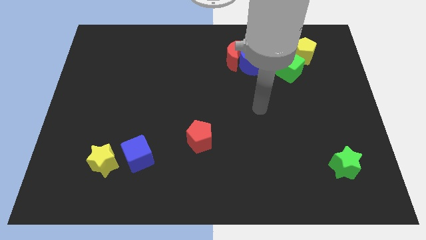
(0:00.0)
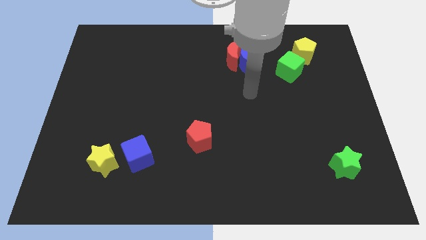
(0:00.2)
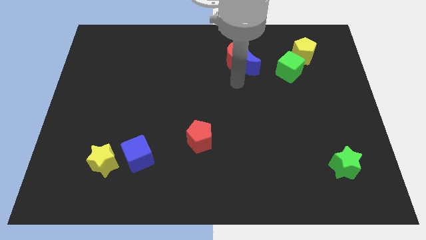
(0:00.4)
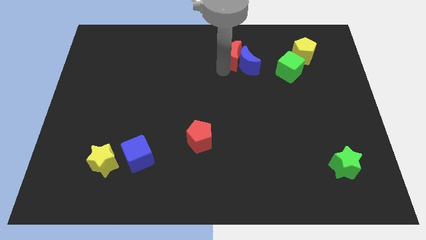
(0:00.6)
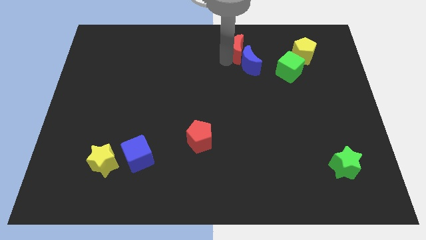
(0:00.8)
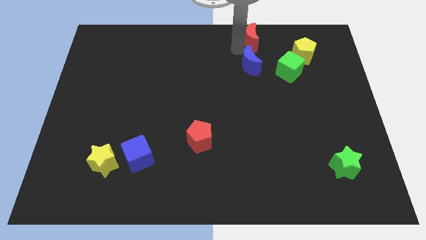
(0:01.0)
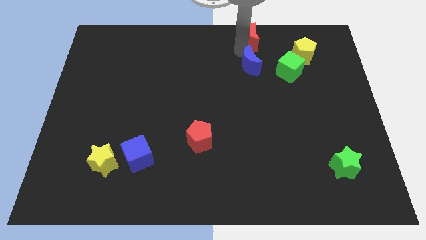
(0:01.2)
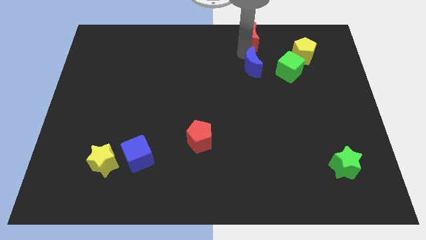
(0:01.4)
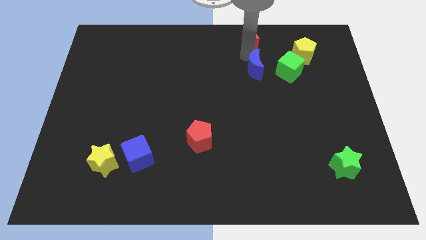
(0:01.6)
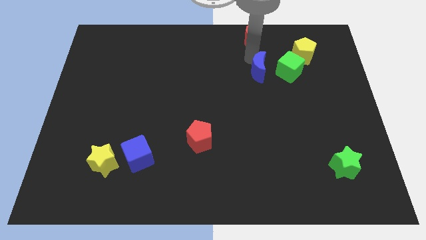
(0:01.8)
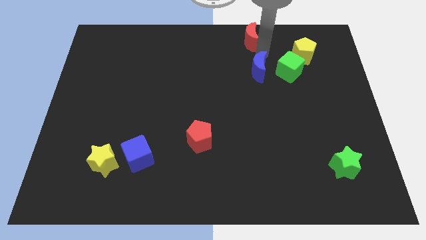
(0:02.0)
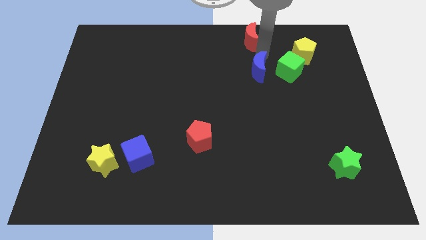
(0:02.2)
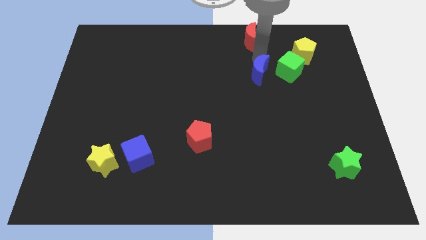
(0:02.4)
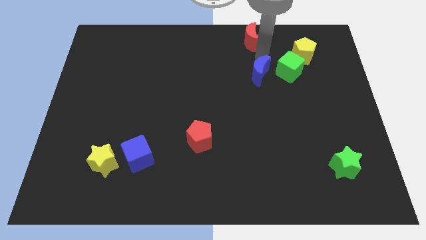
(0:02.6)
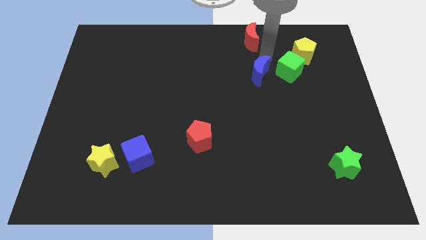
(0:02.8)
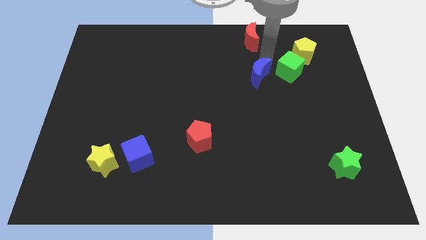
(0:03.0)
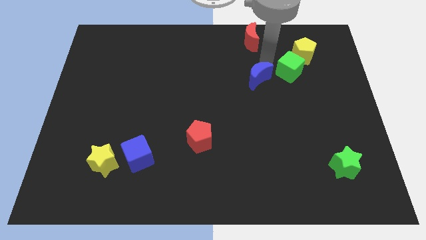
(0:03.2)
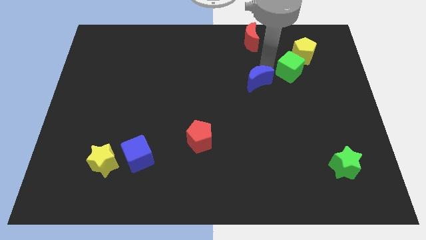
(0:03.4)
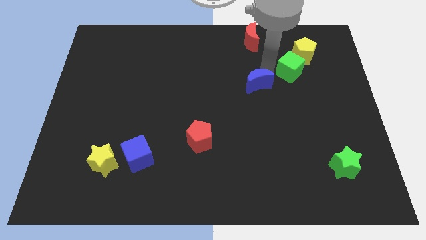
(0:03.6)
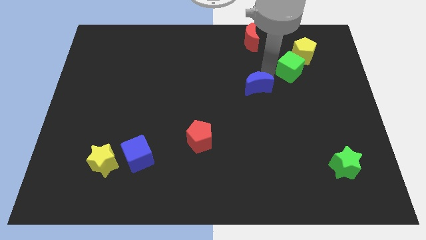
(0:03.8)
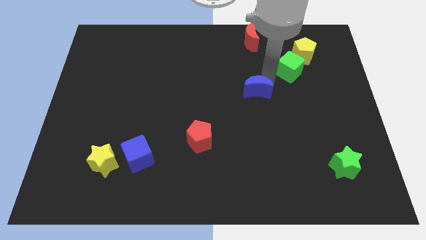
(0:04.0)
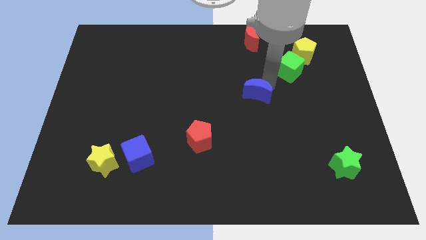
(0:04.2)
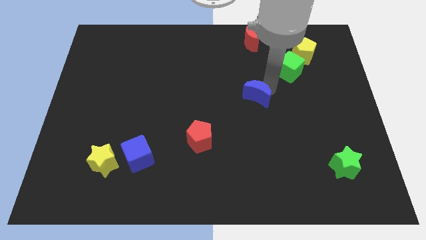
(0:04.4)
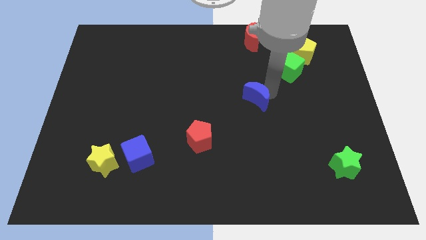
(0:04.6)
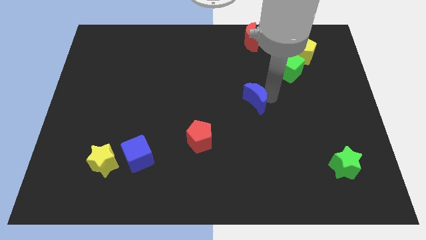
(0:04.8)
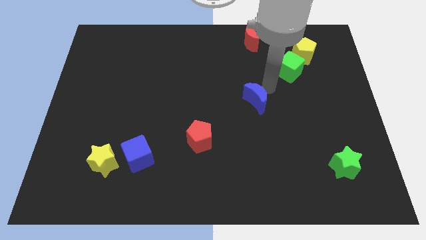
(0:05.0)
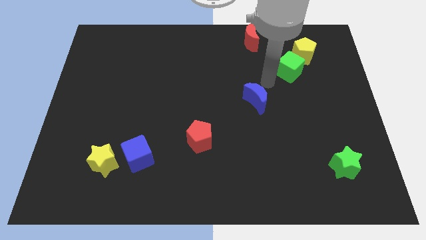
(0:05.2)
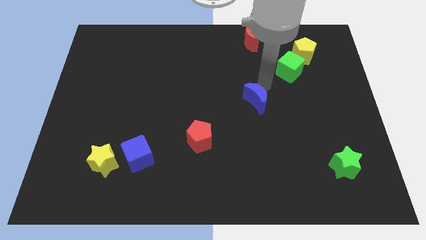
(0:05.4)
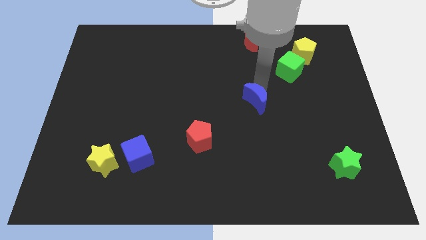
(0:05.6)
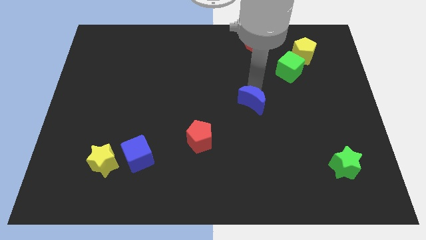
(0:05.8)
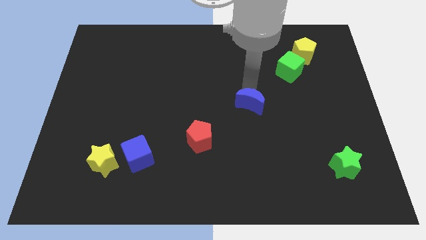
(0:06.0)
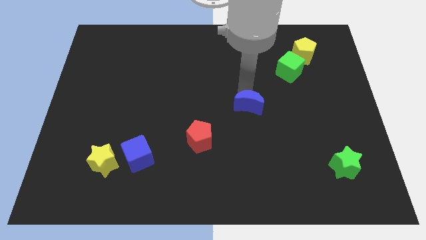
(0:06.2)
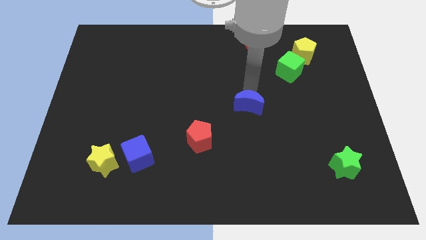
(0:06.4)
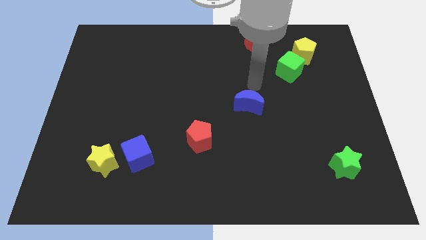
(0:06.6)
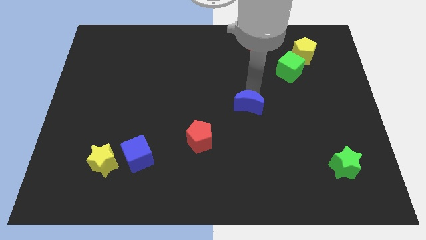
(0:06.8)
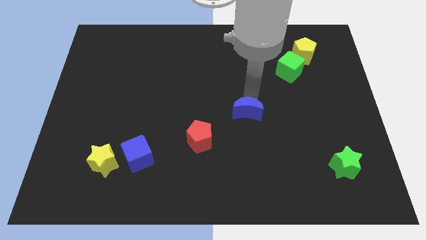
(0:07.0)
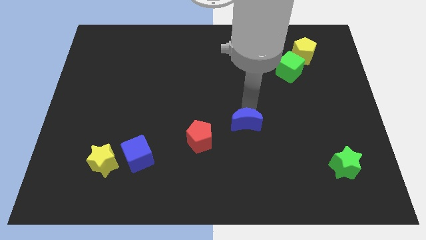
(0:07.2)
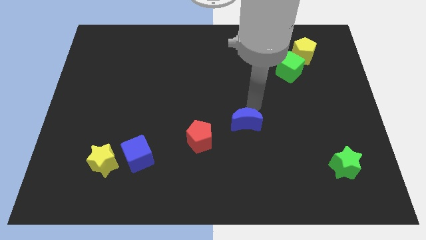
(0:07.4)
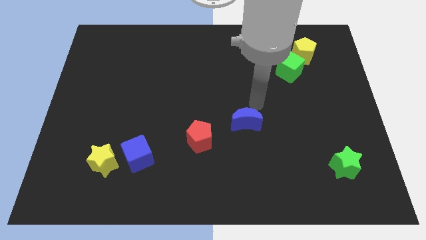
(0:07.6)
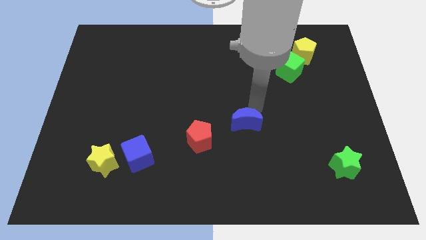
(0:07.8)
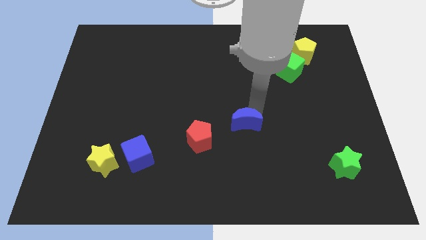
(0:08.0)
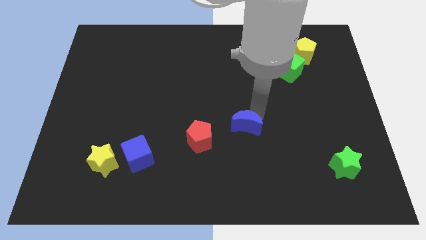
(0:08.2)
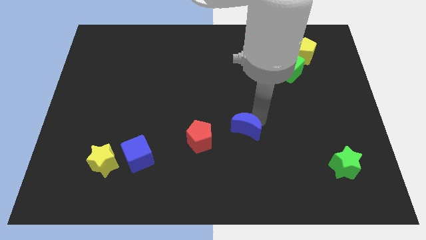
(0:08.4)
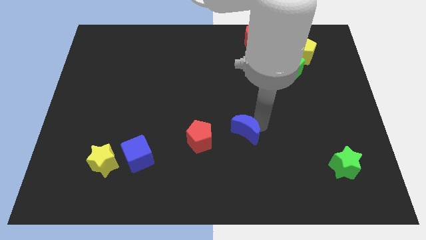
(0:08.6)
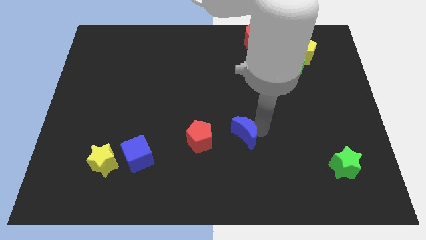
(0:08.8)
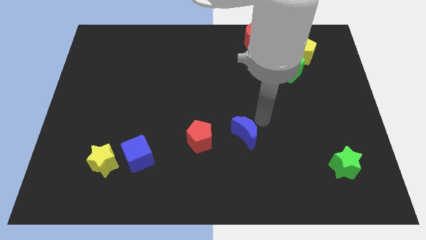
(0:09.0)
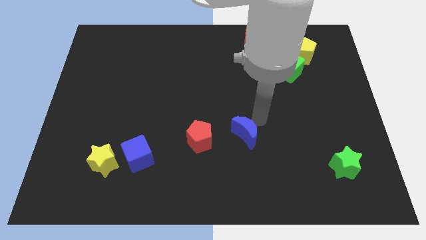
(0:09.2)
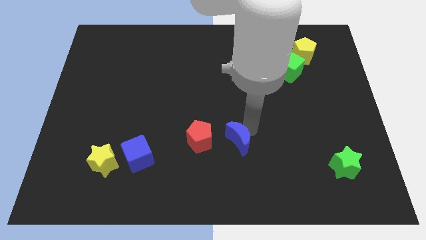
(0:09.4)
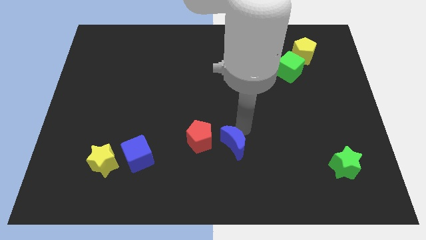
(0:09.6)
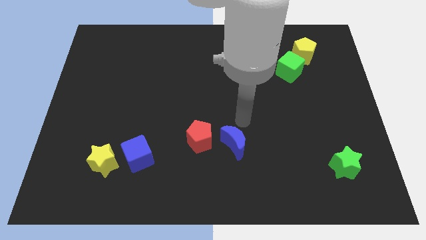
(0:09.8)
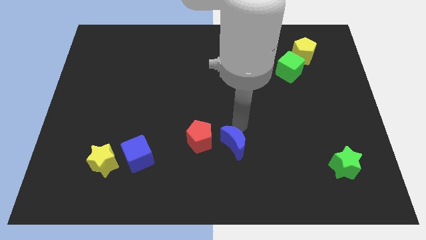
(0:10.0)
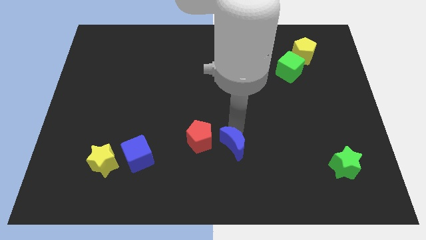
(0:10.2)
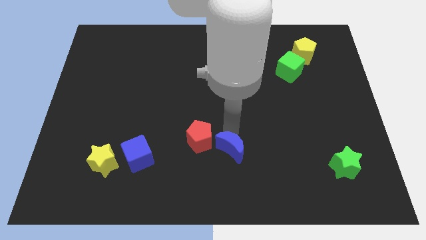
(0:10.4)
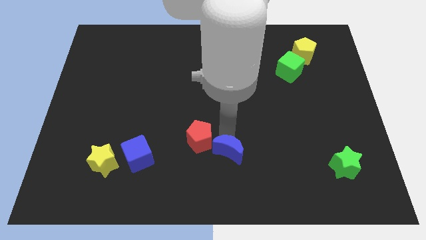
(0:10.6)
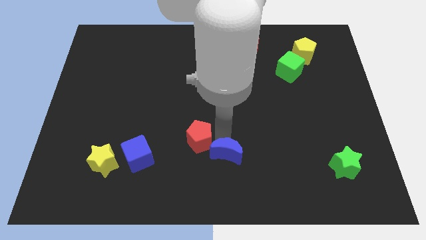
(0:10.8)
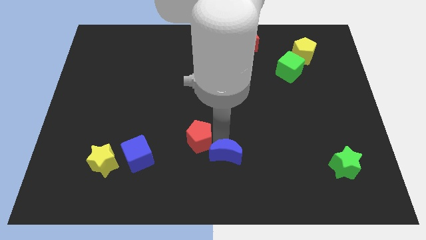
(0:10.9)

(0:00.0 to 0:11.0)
move the blue moon to the bottom

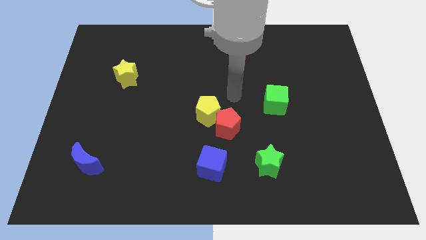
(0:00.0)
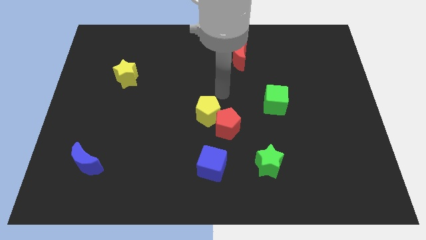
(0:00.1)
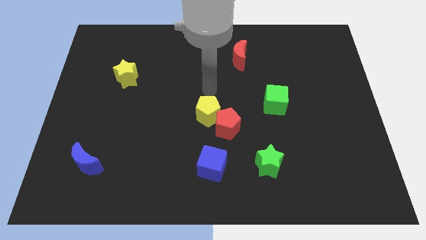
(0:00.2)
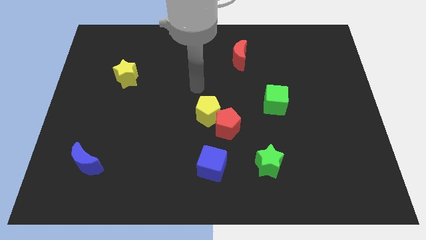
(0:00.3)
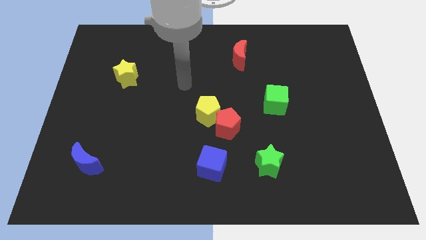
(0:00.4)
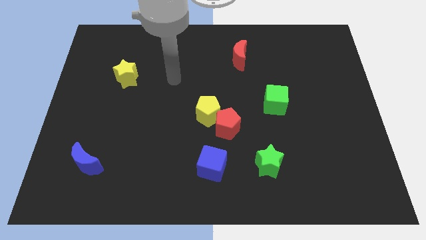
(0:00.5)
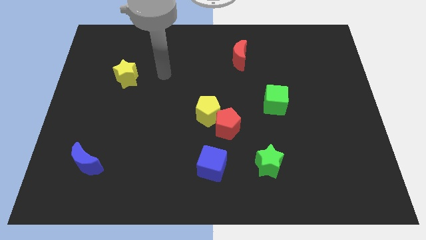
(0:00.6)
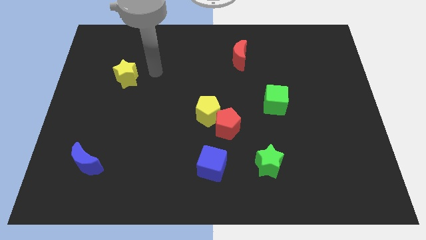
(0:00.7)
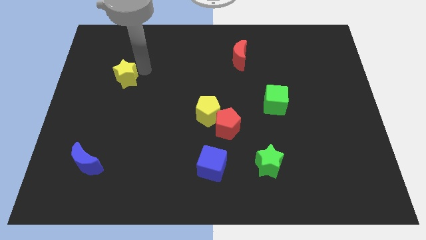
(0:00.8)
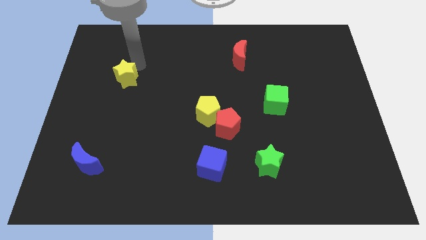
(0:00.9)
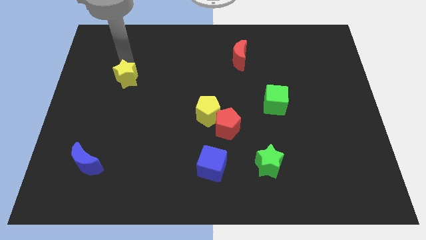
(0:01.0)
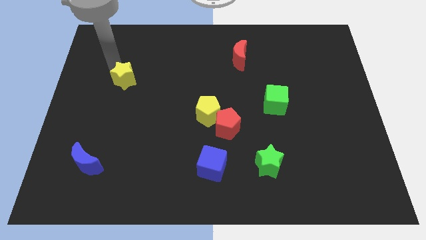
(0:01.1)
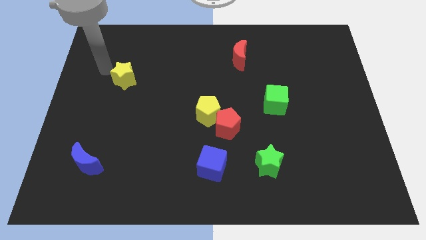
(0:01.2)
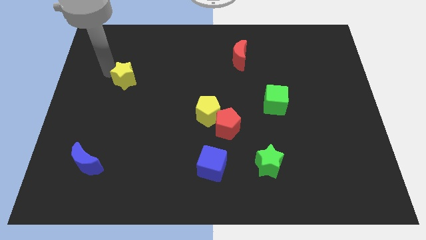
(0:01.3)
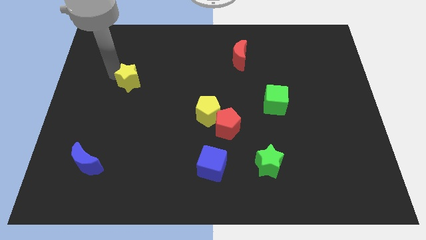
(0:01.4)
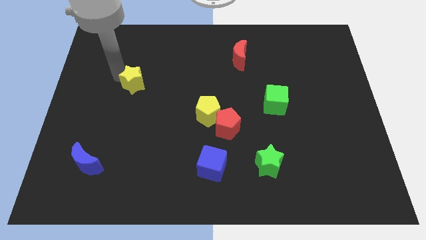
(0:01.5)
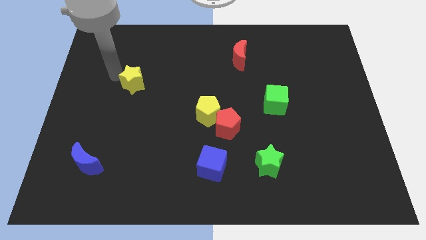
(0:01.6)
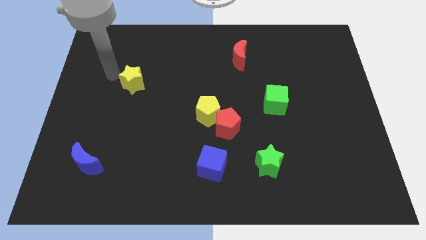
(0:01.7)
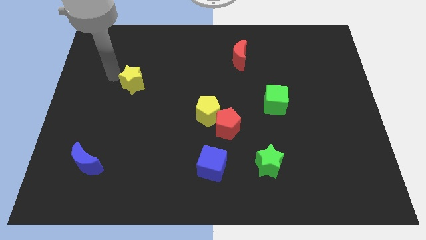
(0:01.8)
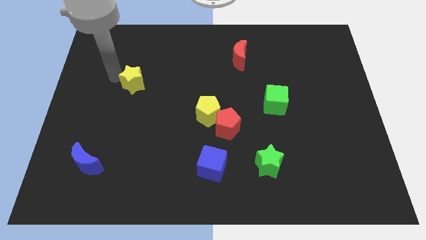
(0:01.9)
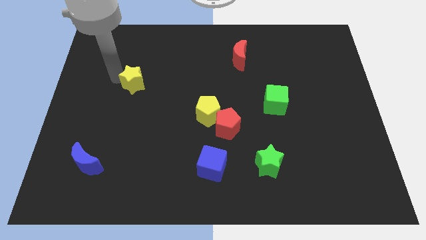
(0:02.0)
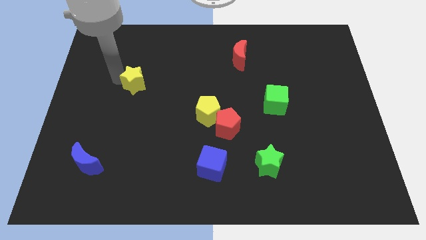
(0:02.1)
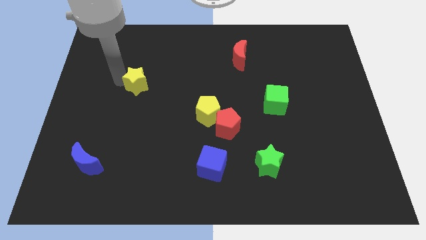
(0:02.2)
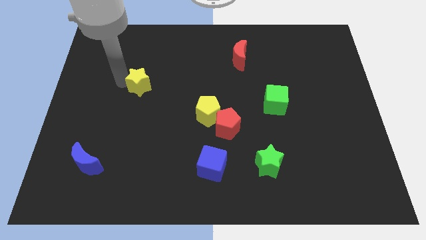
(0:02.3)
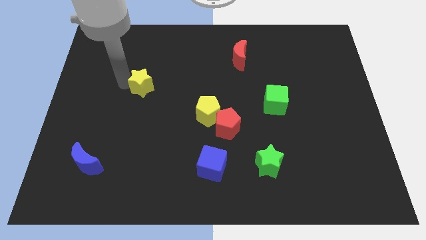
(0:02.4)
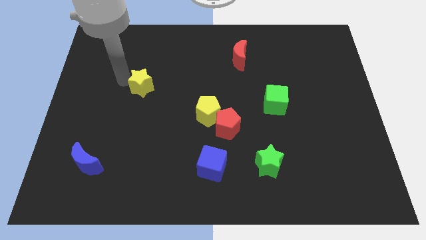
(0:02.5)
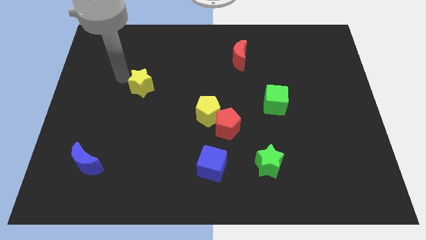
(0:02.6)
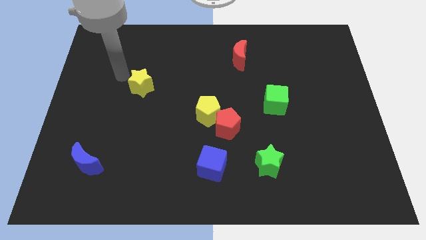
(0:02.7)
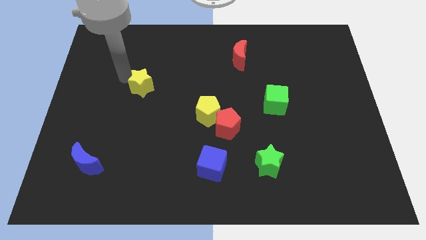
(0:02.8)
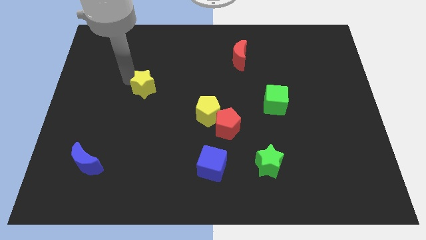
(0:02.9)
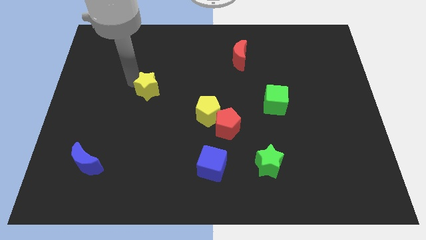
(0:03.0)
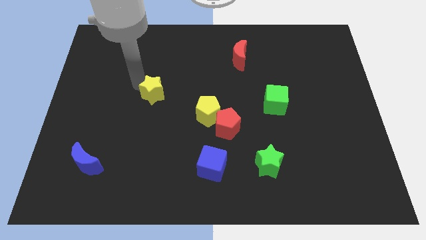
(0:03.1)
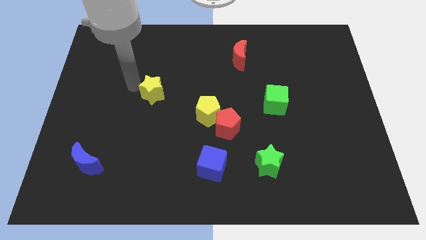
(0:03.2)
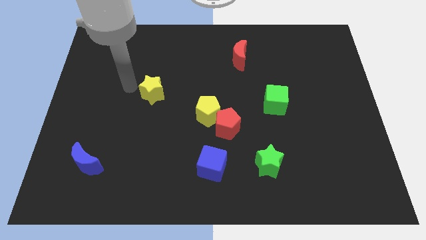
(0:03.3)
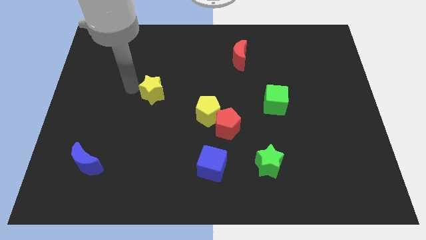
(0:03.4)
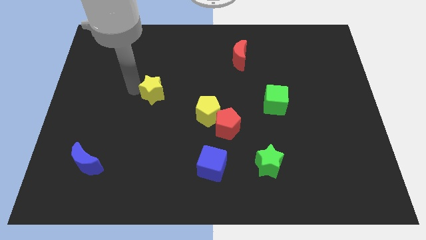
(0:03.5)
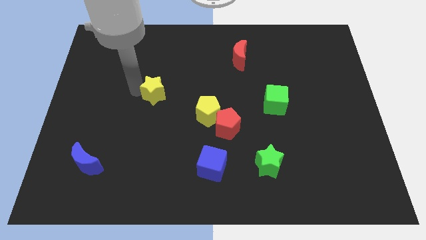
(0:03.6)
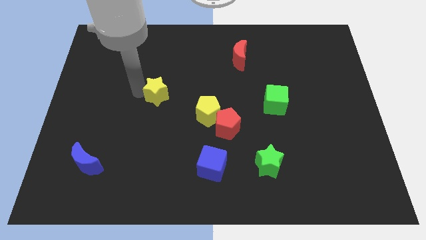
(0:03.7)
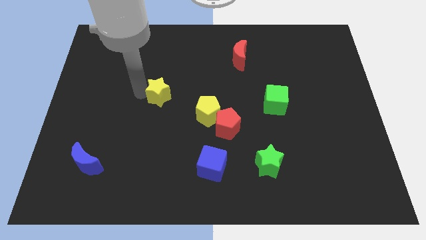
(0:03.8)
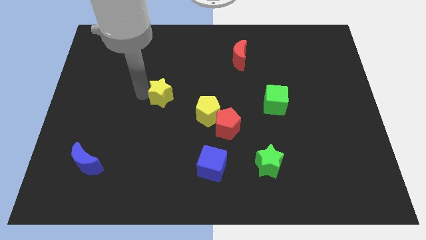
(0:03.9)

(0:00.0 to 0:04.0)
move the yellow star to the middle of the board
